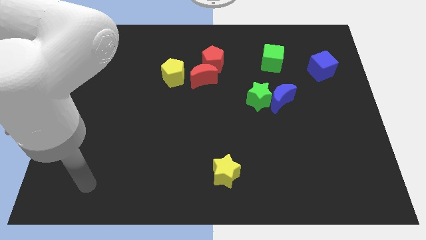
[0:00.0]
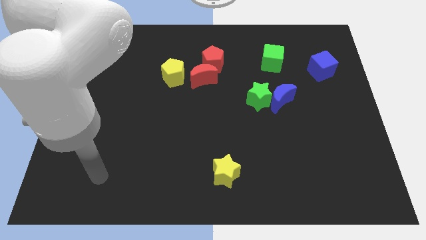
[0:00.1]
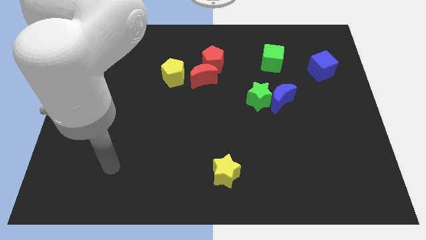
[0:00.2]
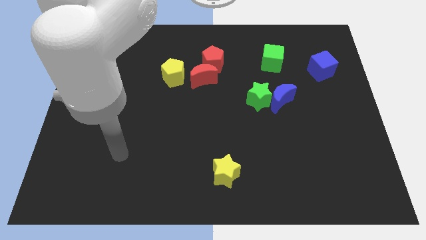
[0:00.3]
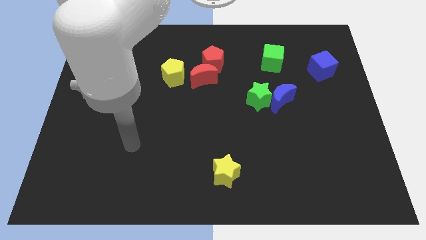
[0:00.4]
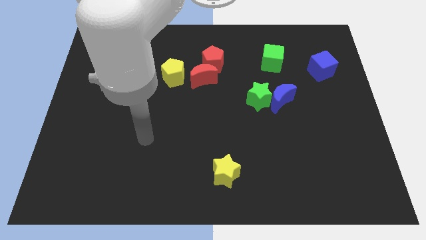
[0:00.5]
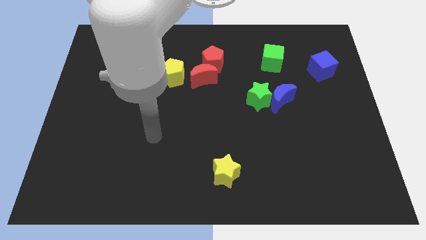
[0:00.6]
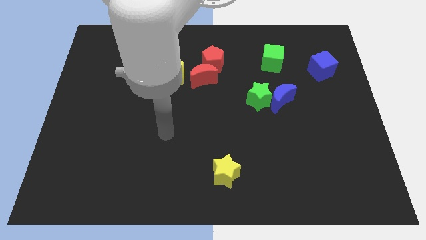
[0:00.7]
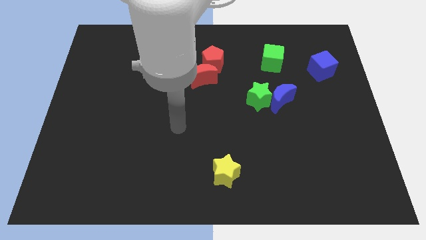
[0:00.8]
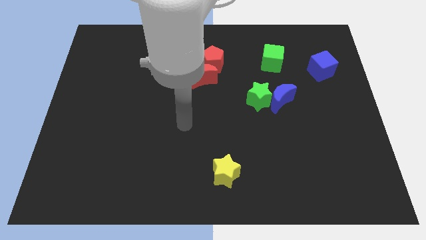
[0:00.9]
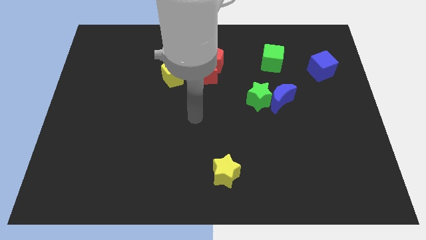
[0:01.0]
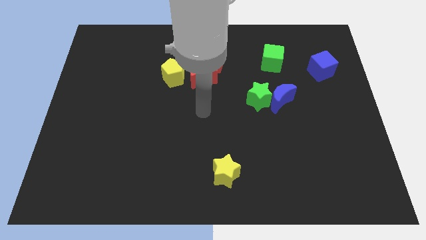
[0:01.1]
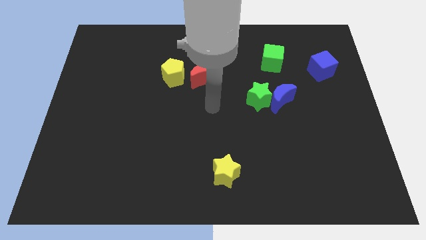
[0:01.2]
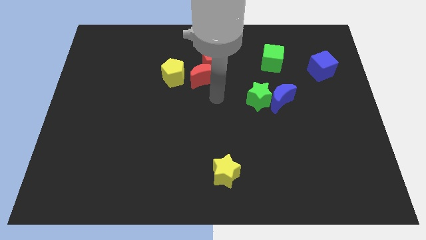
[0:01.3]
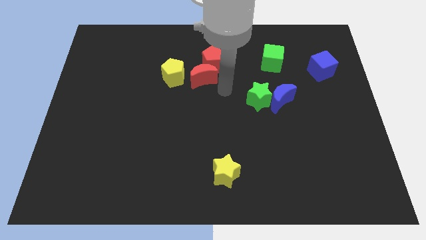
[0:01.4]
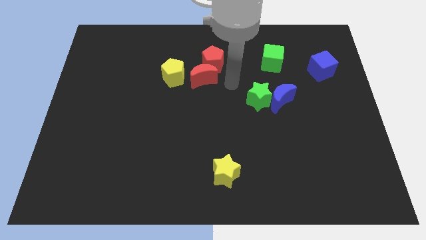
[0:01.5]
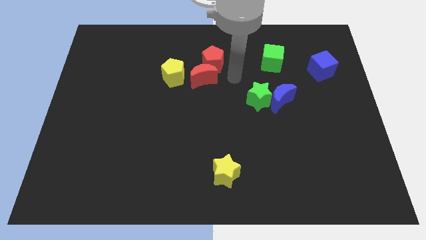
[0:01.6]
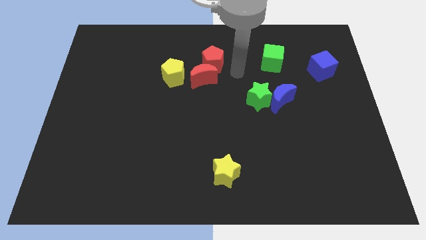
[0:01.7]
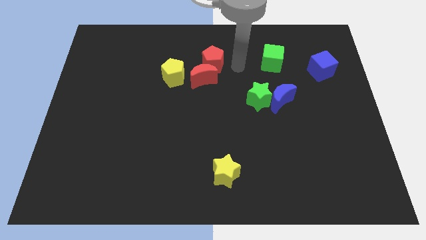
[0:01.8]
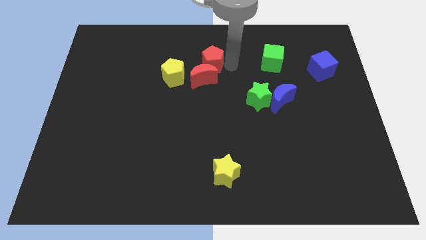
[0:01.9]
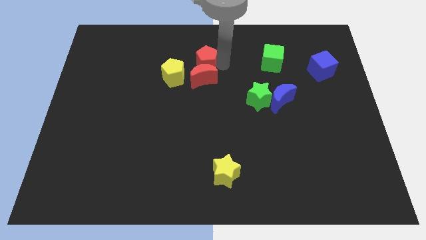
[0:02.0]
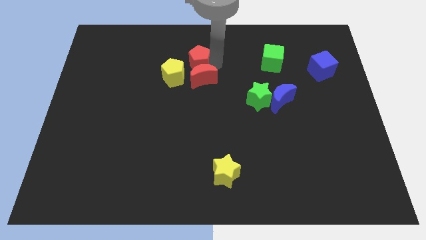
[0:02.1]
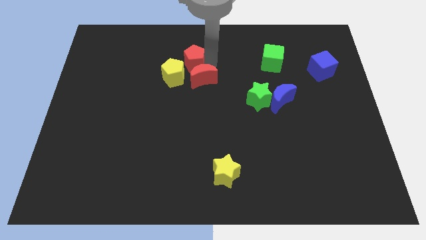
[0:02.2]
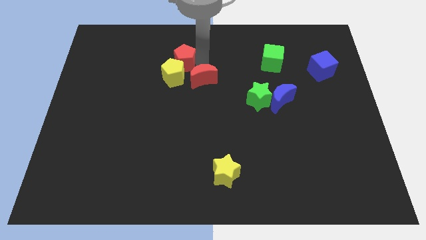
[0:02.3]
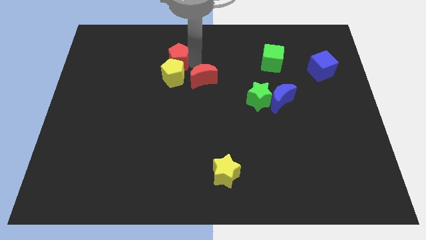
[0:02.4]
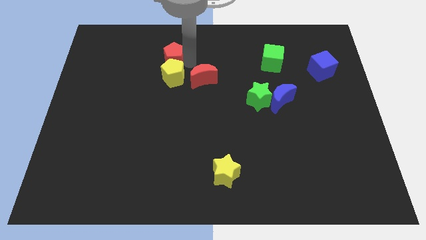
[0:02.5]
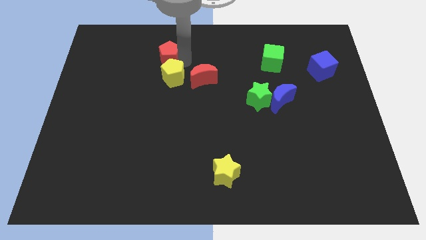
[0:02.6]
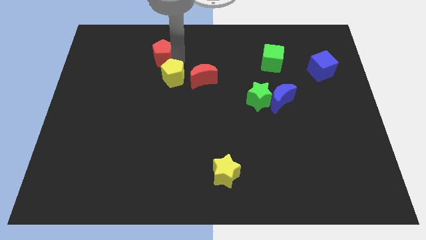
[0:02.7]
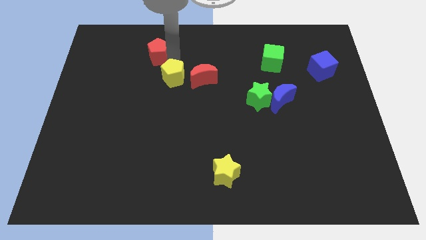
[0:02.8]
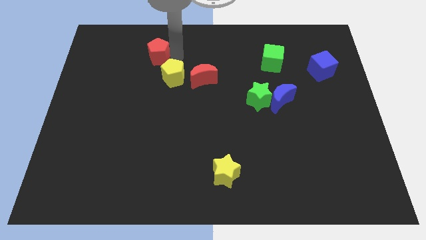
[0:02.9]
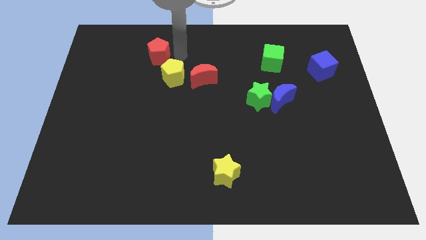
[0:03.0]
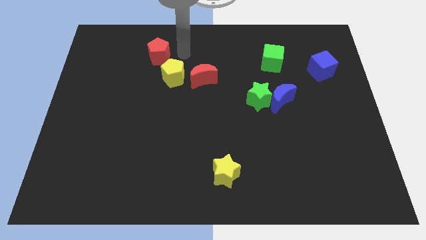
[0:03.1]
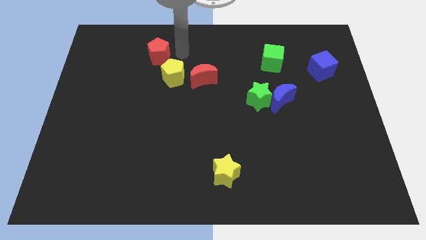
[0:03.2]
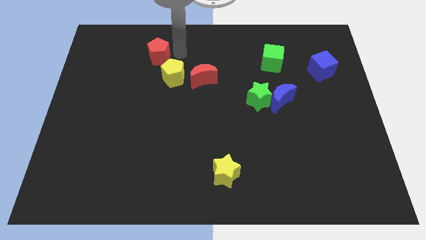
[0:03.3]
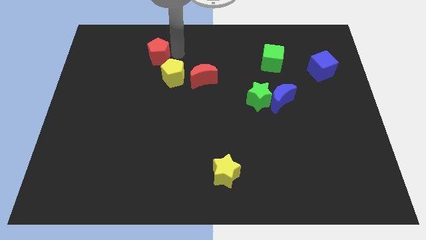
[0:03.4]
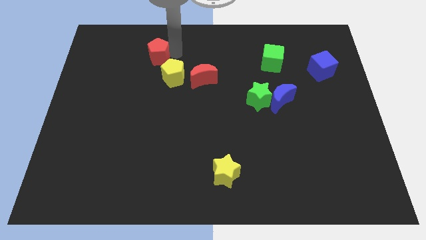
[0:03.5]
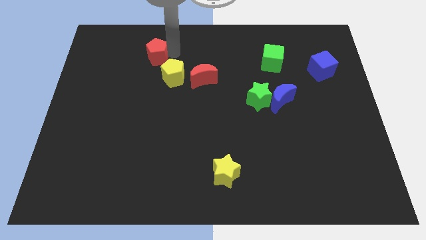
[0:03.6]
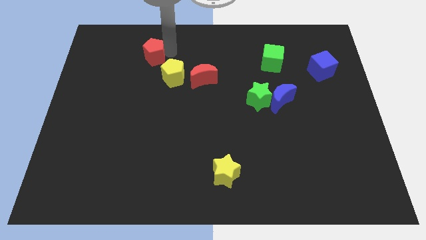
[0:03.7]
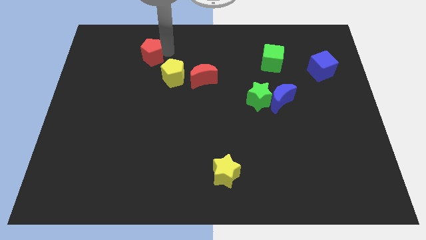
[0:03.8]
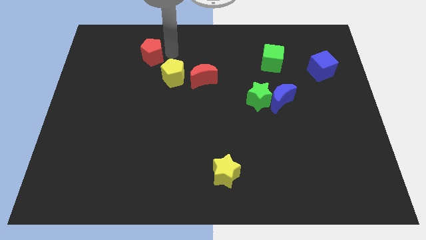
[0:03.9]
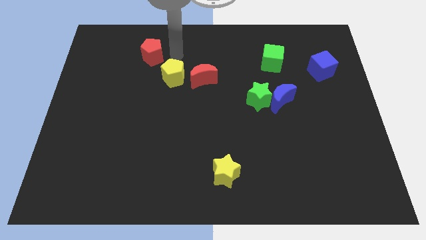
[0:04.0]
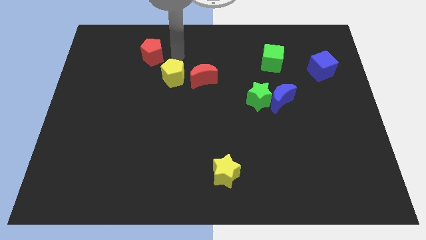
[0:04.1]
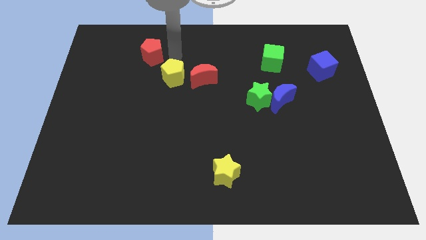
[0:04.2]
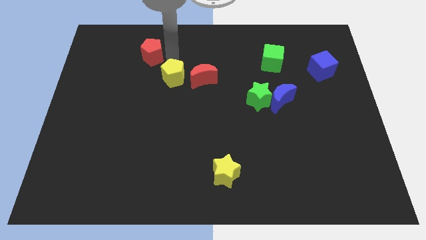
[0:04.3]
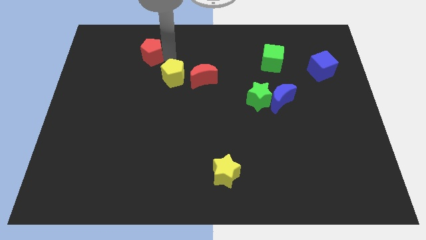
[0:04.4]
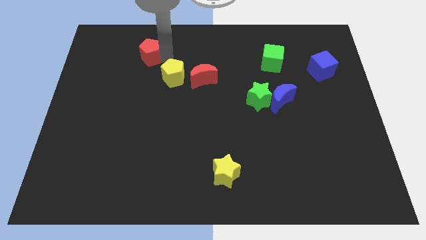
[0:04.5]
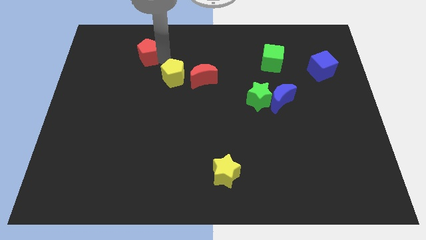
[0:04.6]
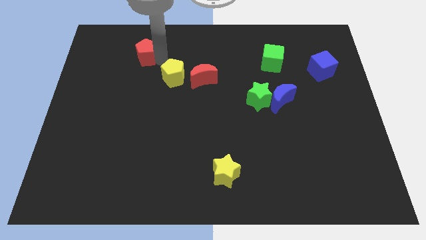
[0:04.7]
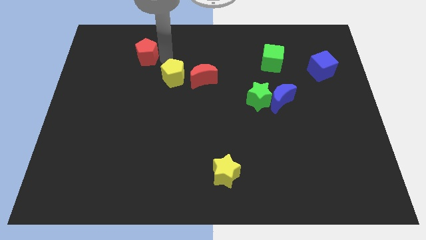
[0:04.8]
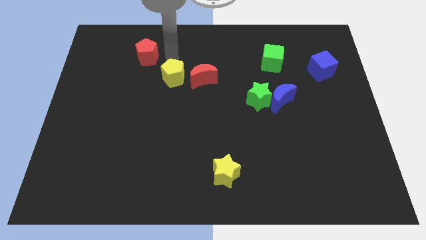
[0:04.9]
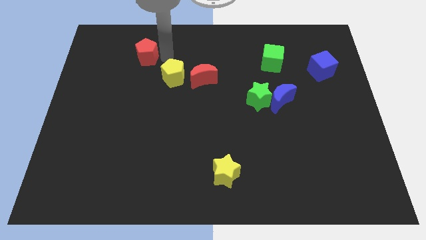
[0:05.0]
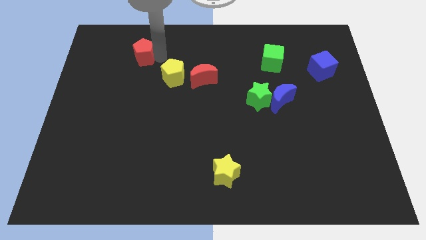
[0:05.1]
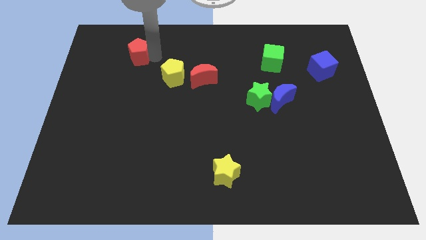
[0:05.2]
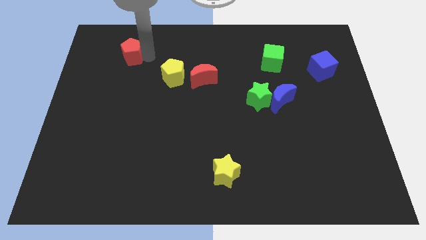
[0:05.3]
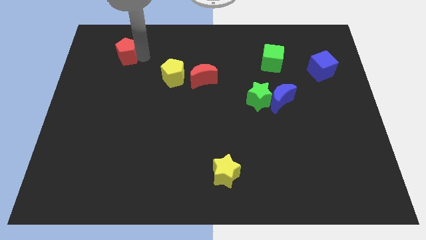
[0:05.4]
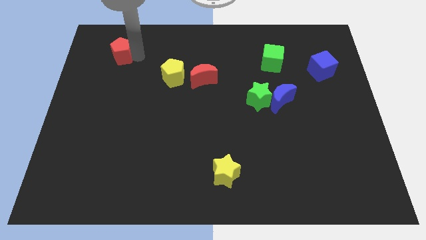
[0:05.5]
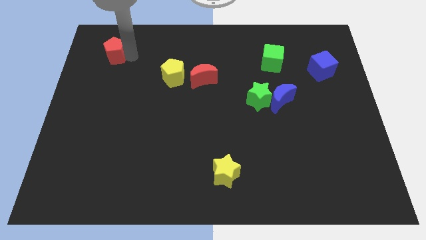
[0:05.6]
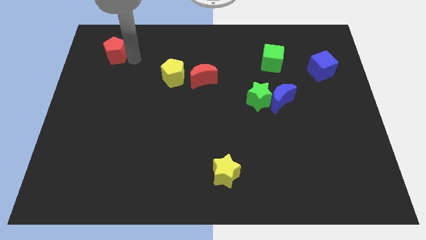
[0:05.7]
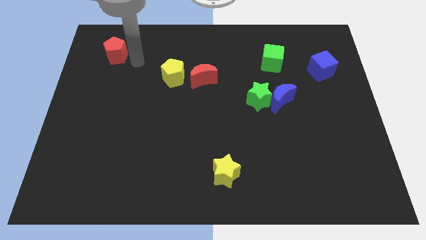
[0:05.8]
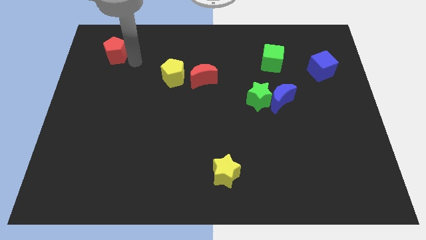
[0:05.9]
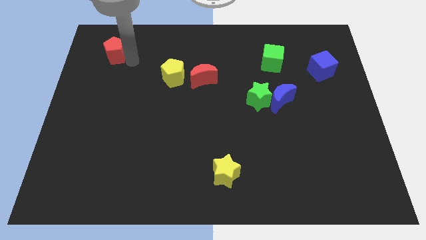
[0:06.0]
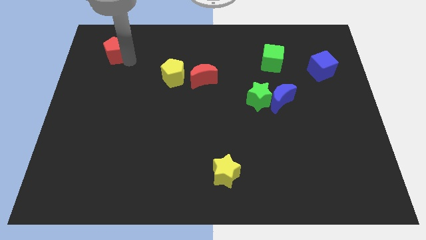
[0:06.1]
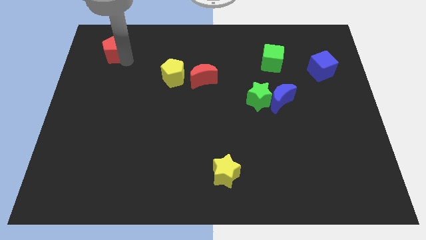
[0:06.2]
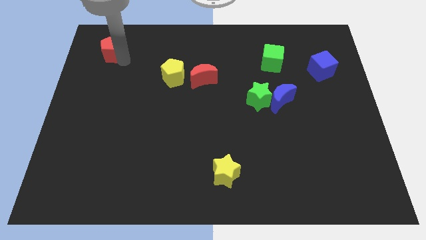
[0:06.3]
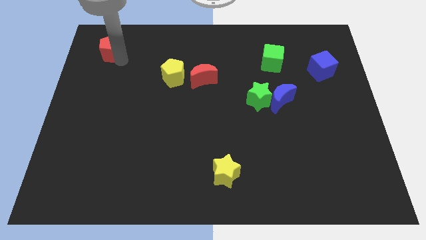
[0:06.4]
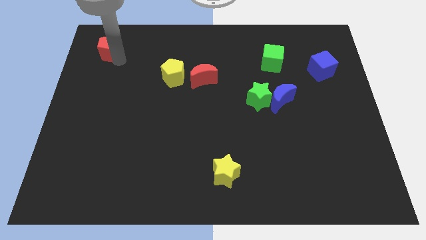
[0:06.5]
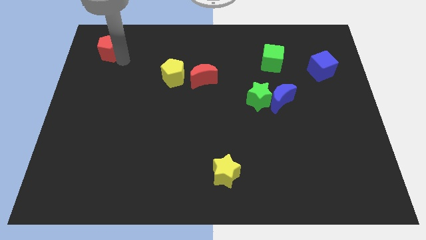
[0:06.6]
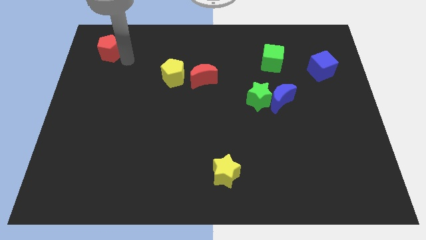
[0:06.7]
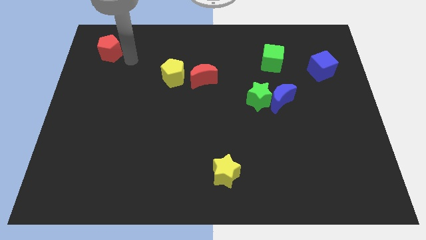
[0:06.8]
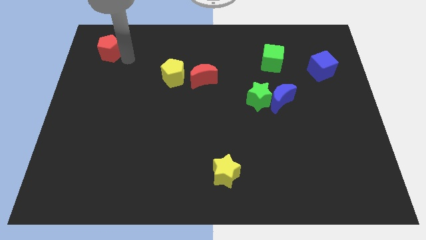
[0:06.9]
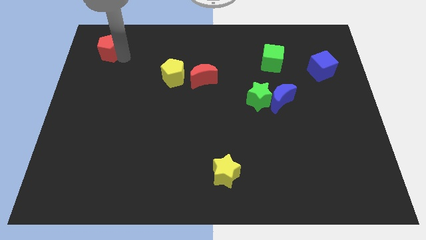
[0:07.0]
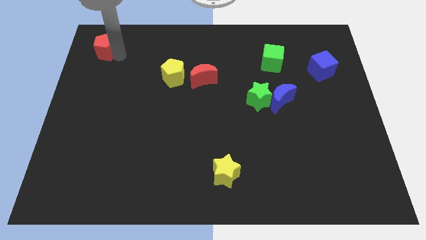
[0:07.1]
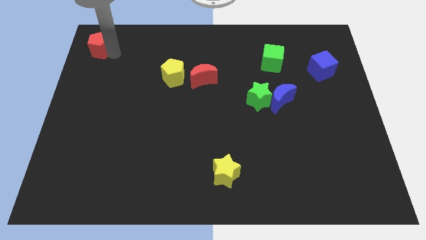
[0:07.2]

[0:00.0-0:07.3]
move the red pentagon to the top left corner

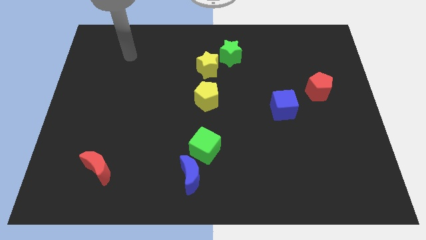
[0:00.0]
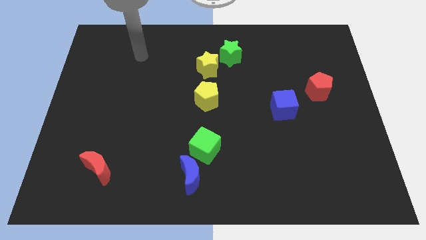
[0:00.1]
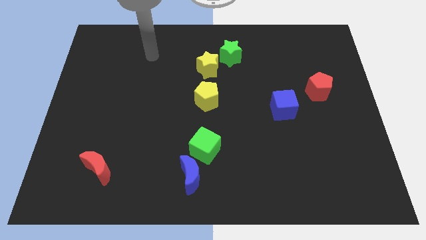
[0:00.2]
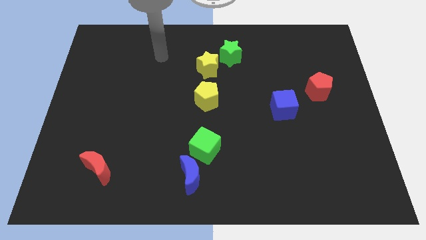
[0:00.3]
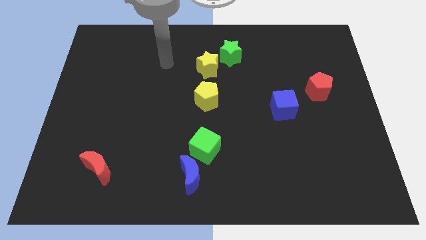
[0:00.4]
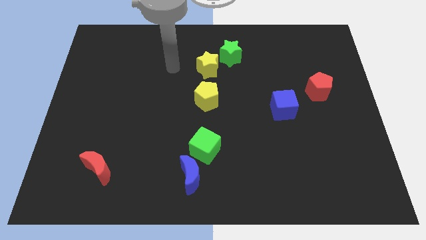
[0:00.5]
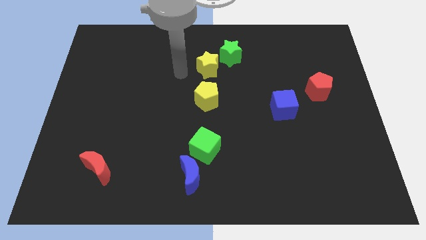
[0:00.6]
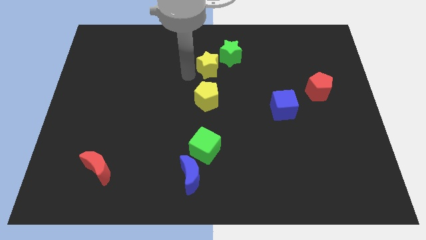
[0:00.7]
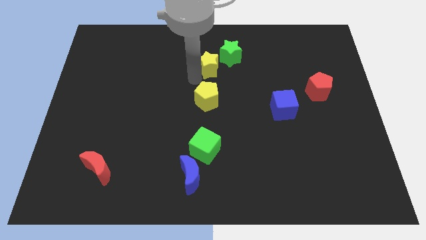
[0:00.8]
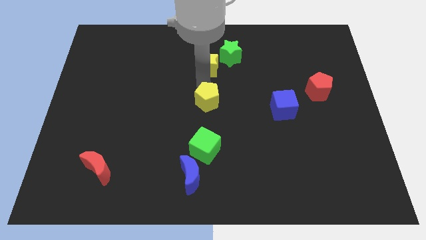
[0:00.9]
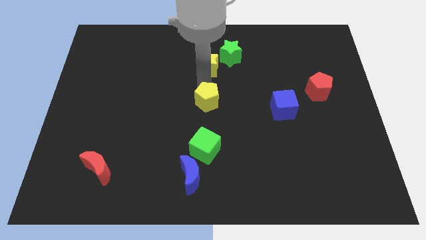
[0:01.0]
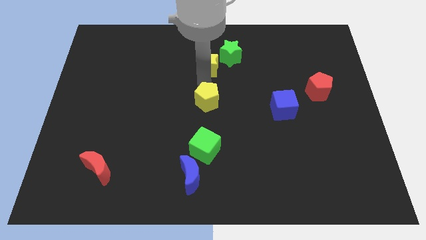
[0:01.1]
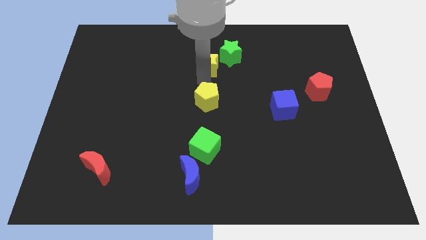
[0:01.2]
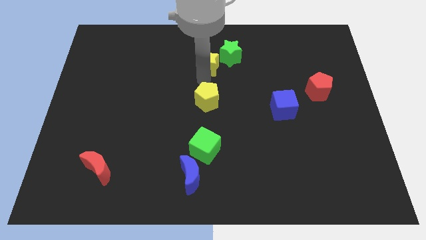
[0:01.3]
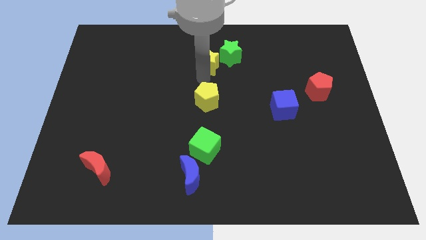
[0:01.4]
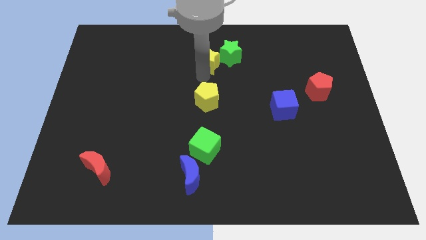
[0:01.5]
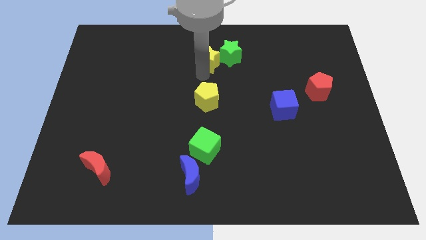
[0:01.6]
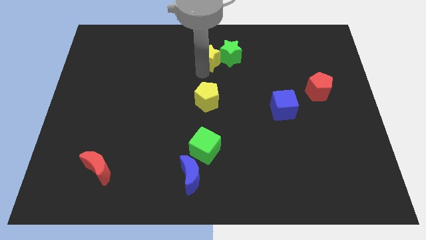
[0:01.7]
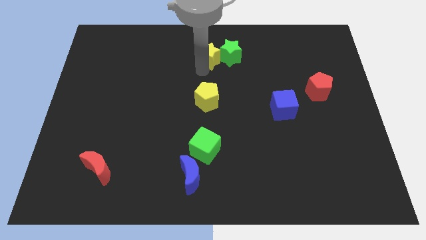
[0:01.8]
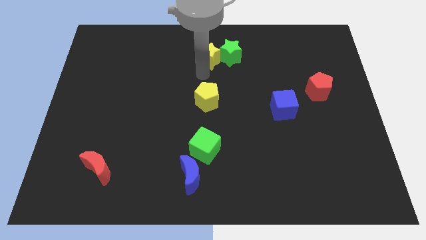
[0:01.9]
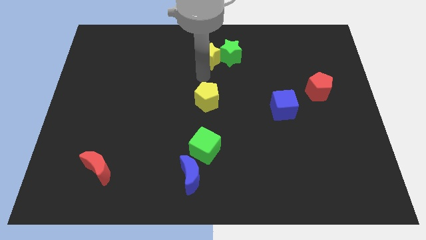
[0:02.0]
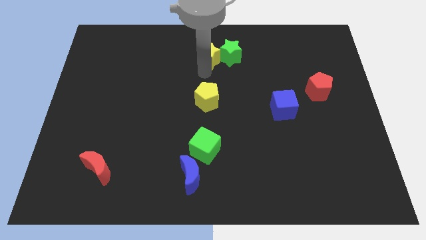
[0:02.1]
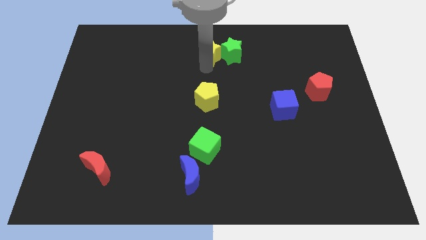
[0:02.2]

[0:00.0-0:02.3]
put the yellow star to the top side
